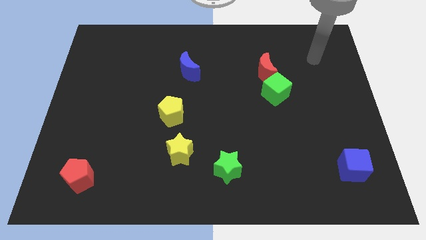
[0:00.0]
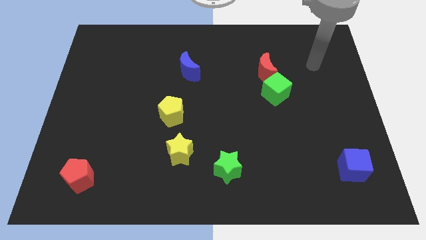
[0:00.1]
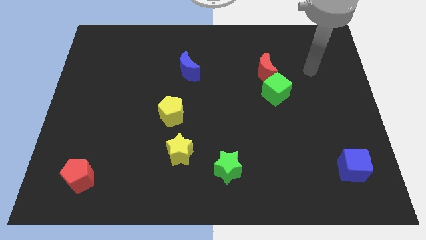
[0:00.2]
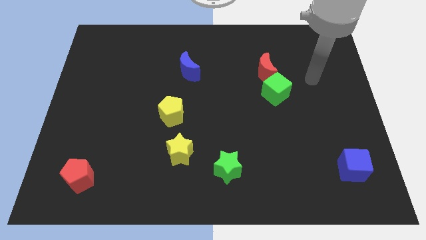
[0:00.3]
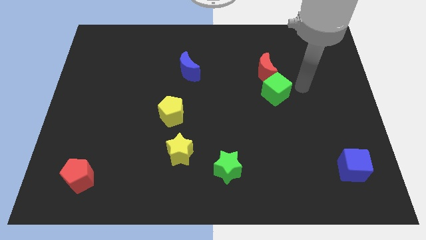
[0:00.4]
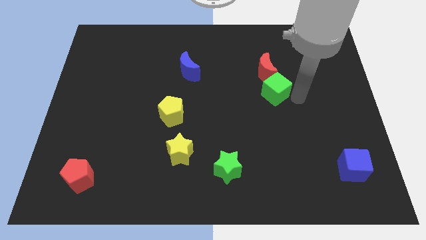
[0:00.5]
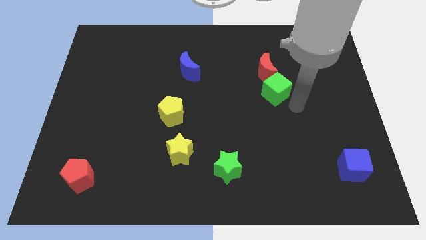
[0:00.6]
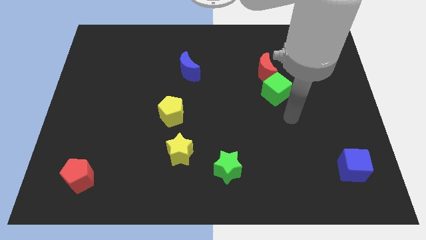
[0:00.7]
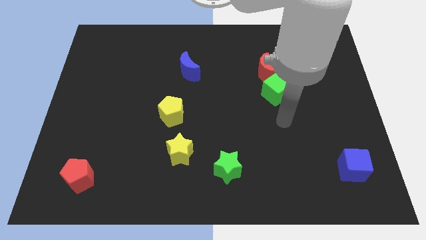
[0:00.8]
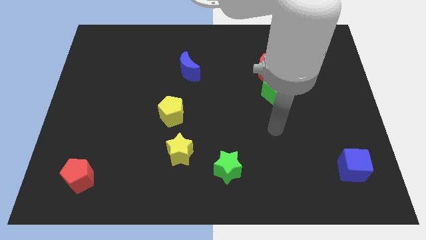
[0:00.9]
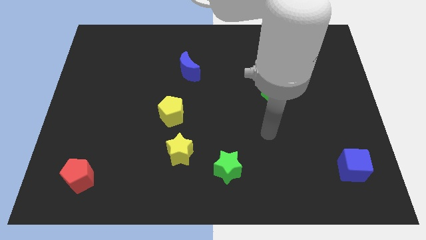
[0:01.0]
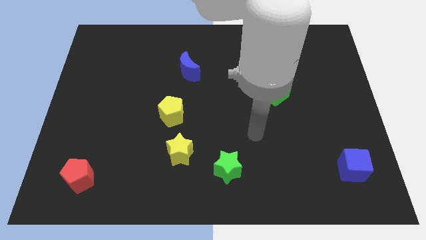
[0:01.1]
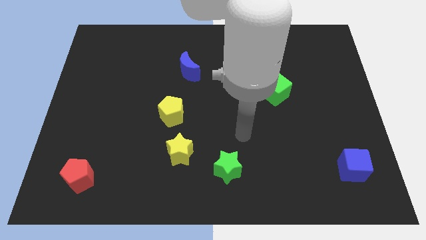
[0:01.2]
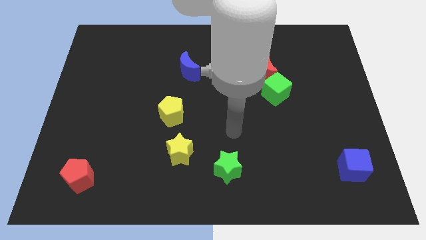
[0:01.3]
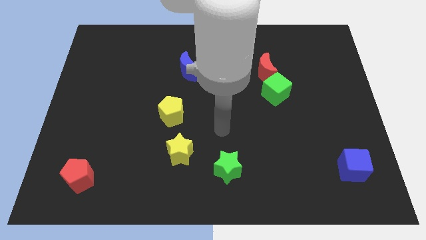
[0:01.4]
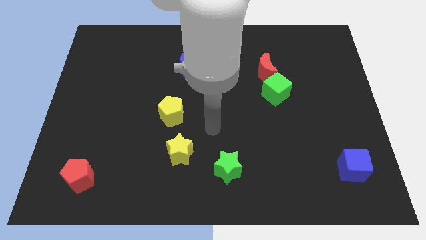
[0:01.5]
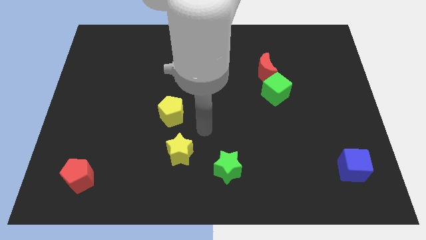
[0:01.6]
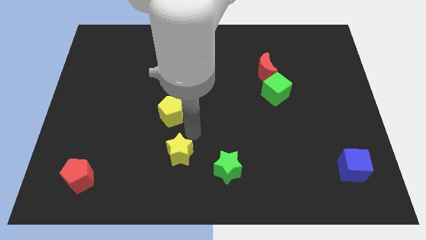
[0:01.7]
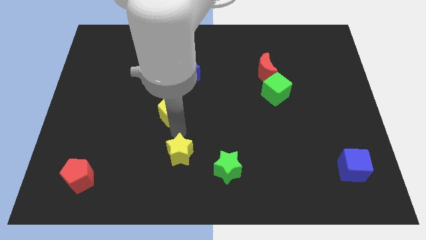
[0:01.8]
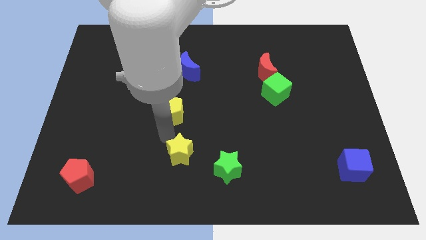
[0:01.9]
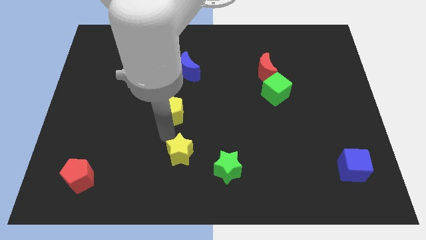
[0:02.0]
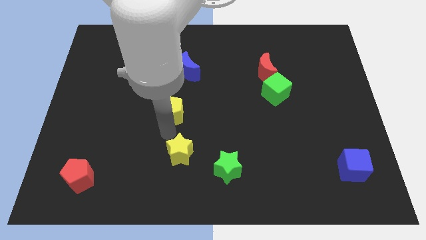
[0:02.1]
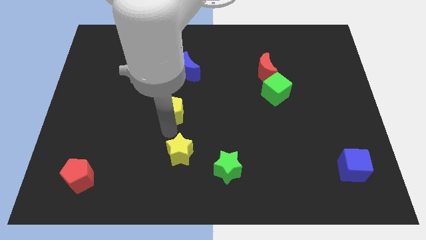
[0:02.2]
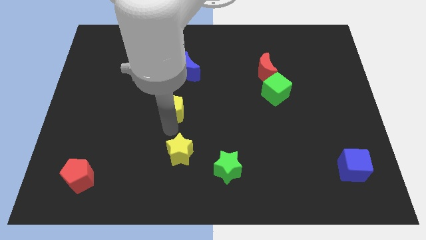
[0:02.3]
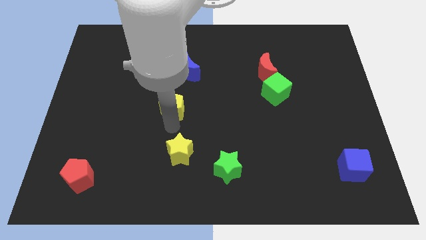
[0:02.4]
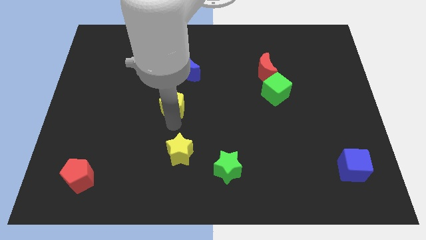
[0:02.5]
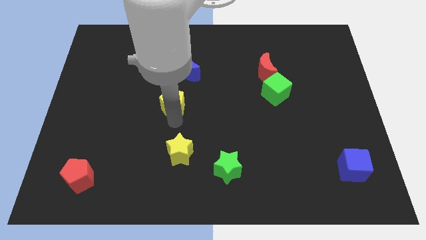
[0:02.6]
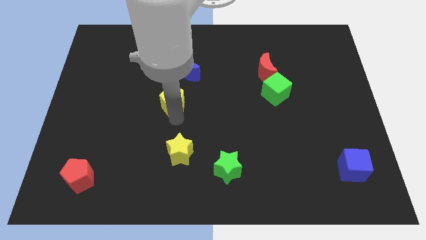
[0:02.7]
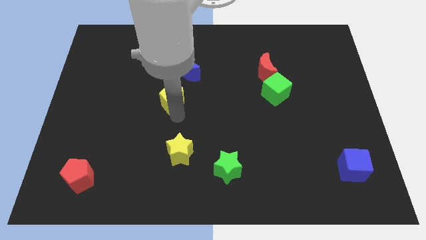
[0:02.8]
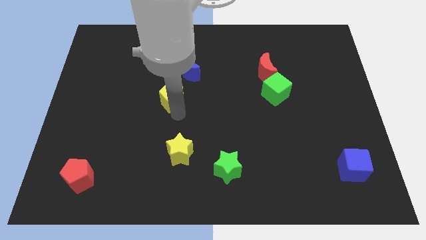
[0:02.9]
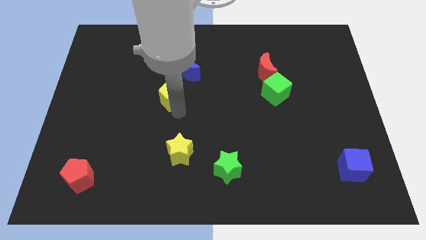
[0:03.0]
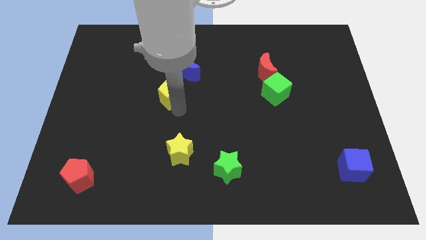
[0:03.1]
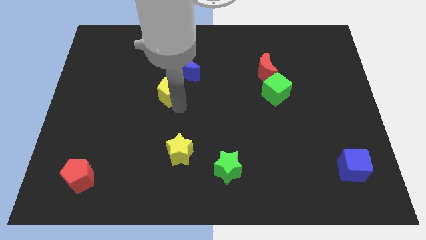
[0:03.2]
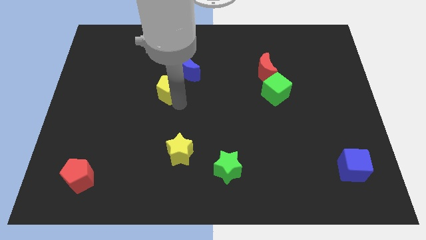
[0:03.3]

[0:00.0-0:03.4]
slightly move the yellow pentagon up

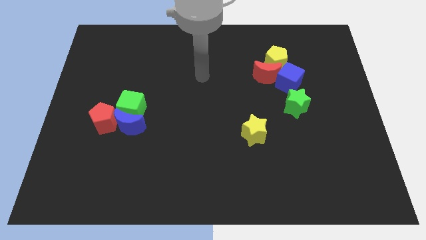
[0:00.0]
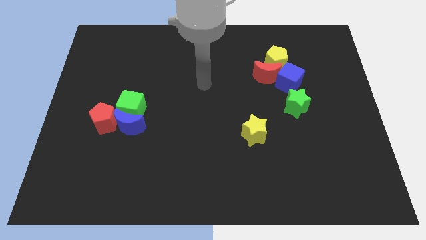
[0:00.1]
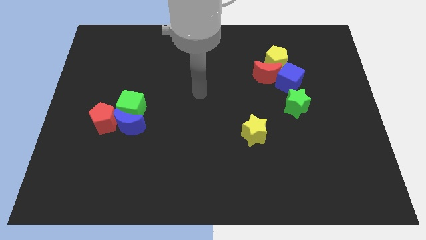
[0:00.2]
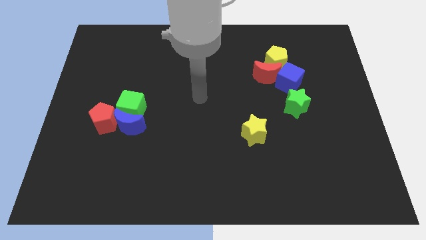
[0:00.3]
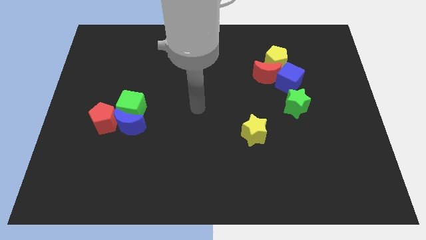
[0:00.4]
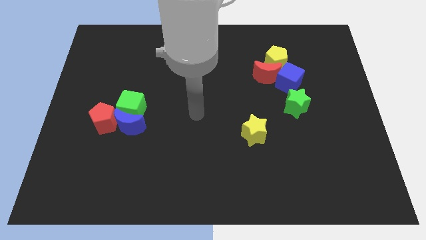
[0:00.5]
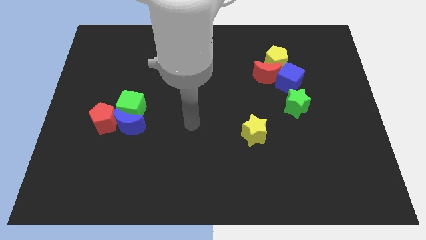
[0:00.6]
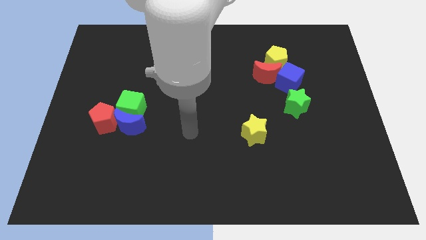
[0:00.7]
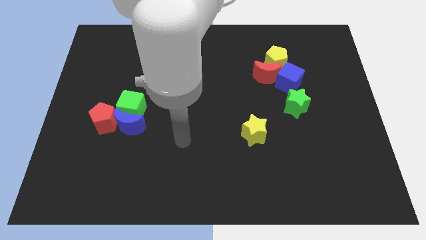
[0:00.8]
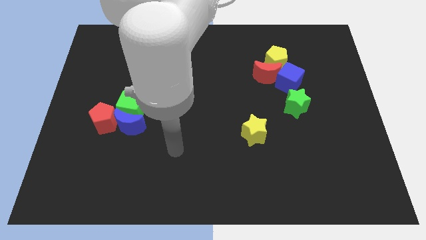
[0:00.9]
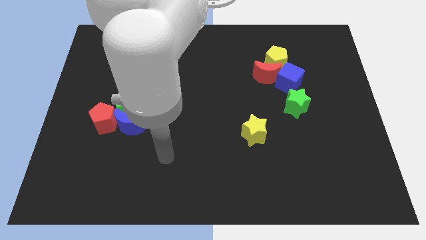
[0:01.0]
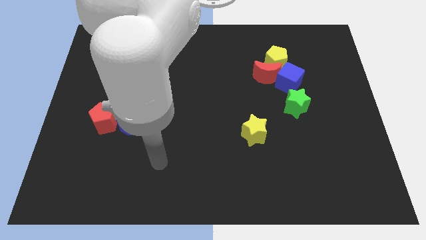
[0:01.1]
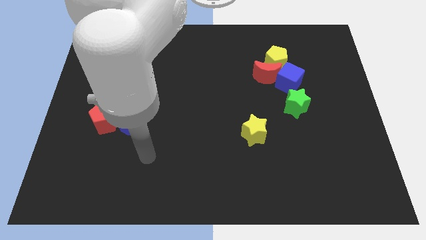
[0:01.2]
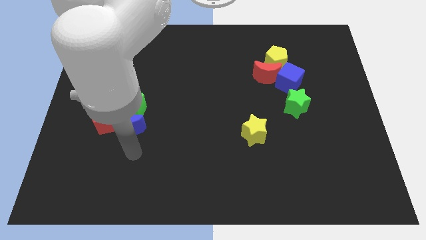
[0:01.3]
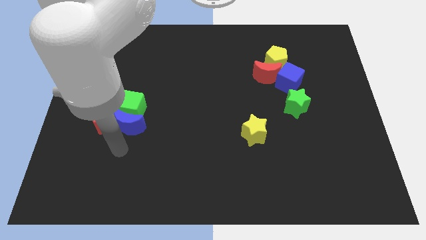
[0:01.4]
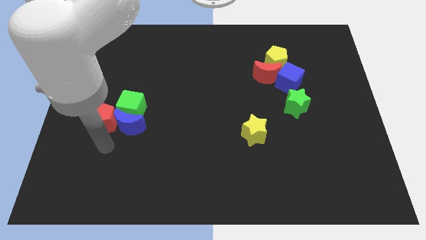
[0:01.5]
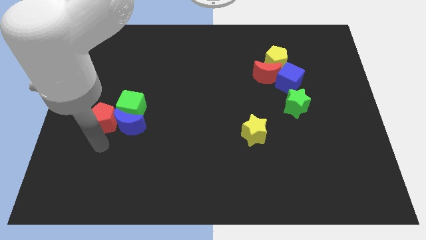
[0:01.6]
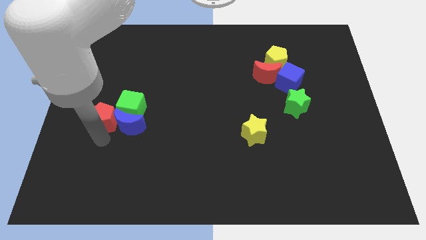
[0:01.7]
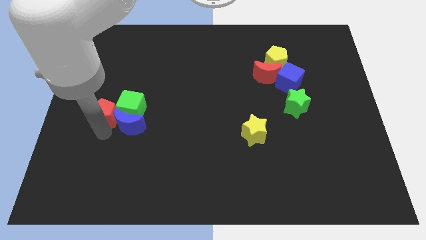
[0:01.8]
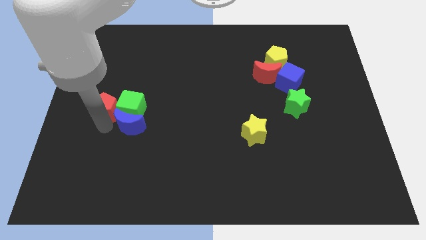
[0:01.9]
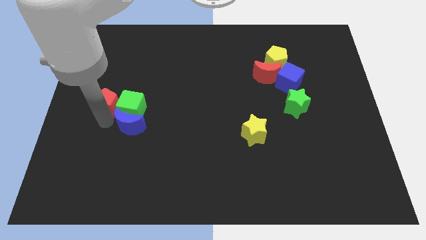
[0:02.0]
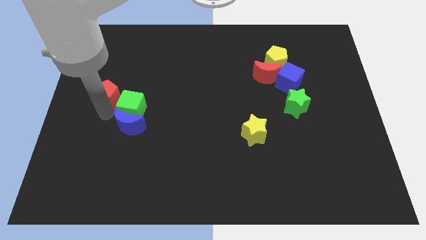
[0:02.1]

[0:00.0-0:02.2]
push the red pentagon somewhat up

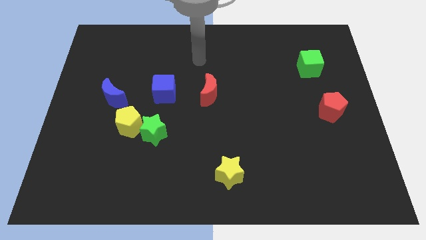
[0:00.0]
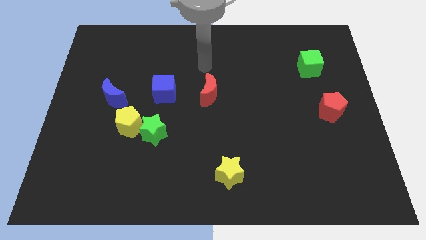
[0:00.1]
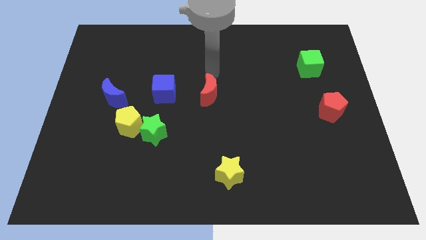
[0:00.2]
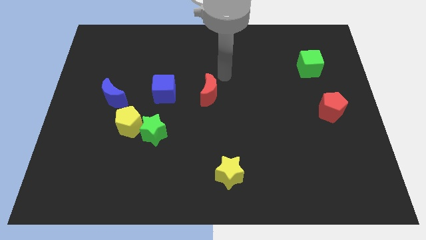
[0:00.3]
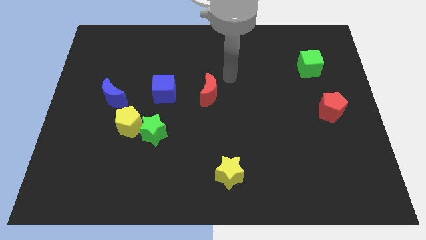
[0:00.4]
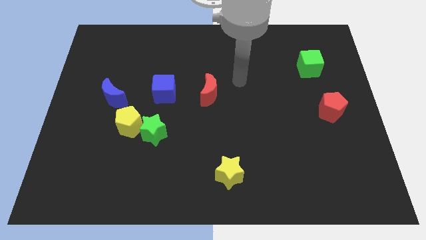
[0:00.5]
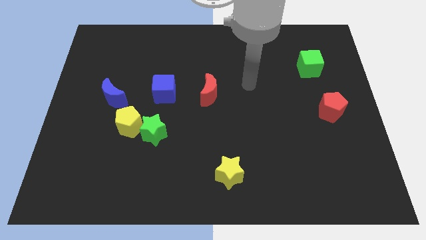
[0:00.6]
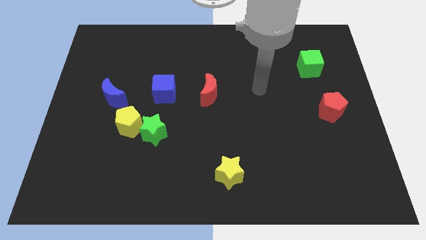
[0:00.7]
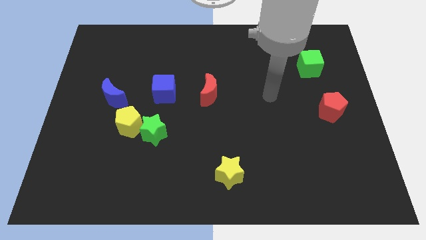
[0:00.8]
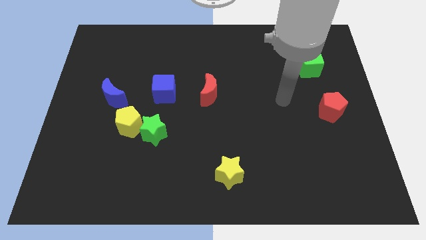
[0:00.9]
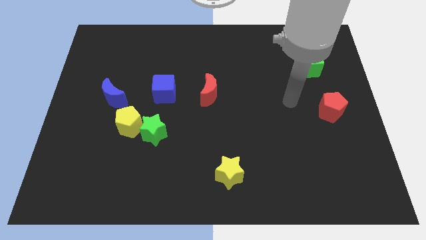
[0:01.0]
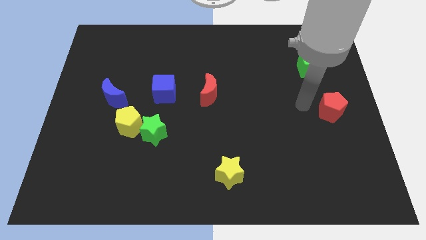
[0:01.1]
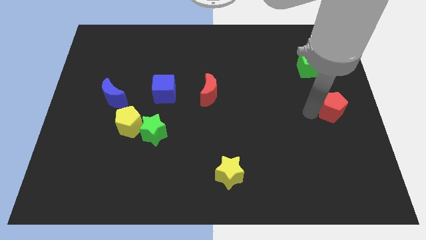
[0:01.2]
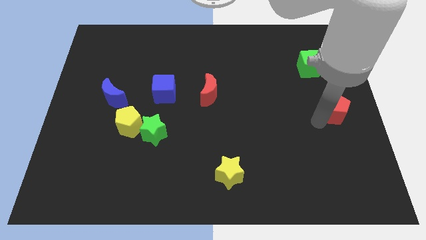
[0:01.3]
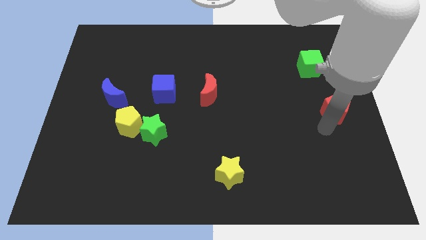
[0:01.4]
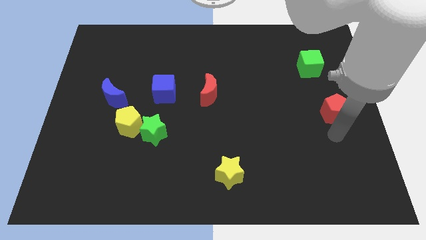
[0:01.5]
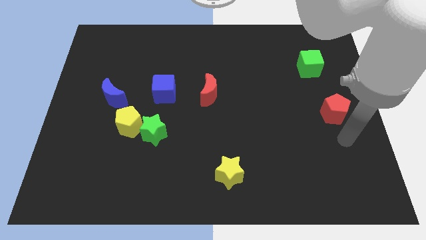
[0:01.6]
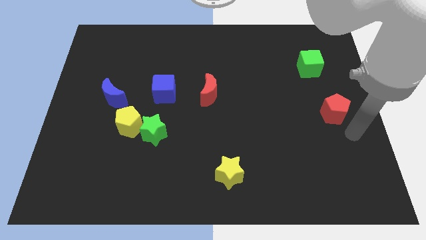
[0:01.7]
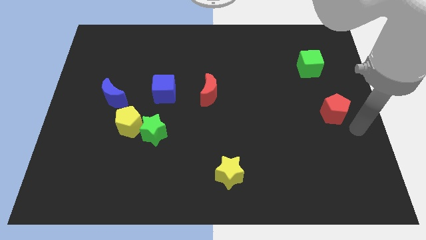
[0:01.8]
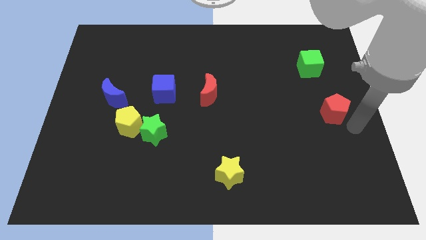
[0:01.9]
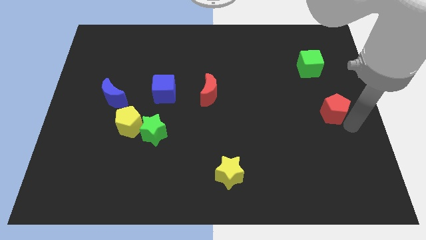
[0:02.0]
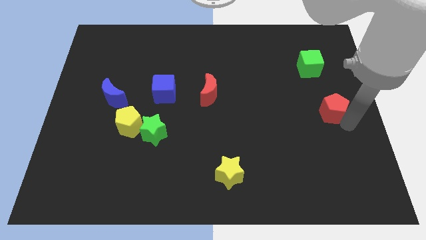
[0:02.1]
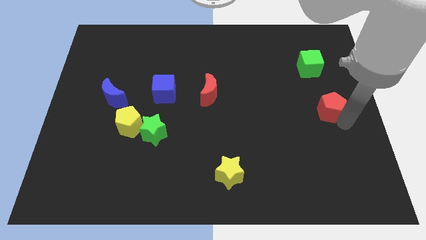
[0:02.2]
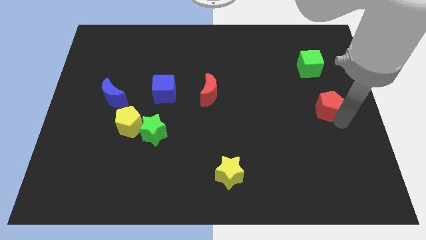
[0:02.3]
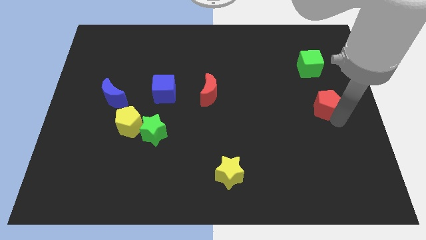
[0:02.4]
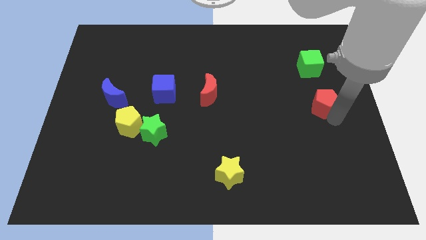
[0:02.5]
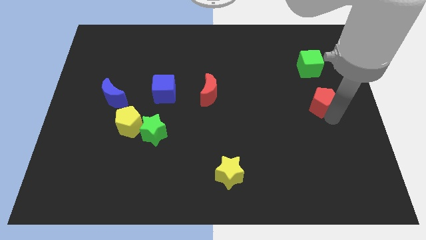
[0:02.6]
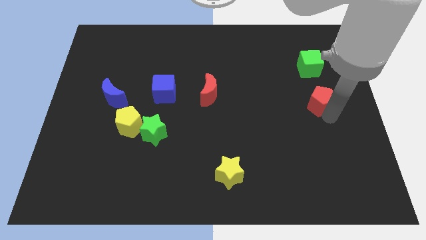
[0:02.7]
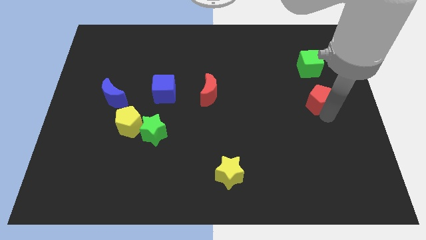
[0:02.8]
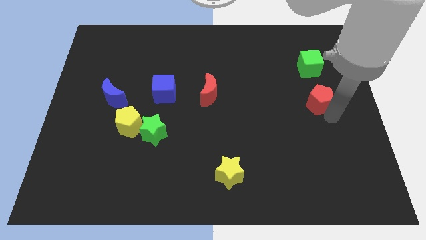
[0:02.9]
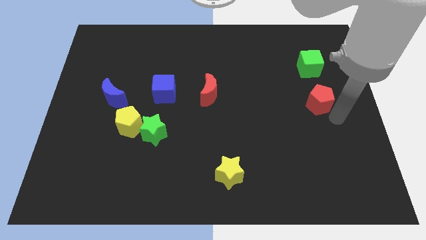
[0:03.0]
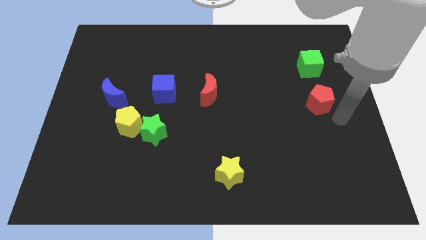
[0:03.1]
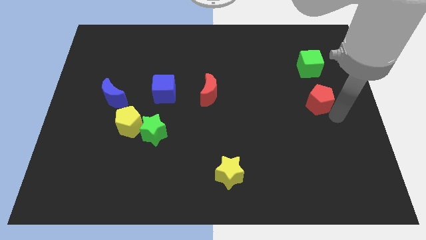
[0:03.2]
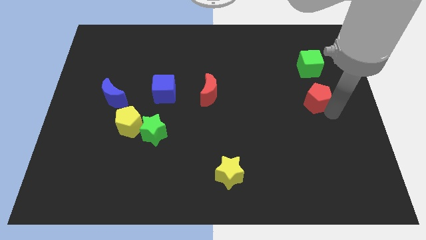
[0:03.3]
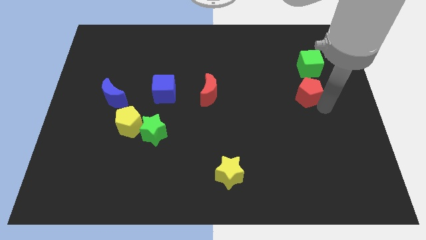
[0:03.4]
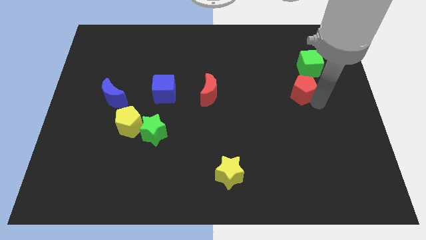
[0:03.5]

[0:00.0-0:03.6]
push the red pentagon upwards and to the left diagonally a bit
